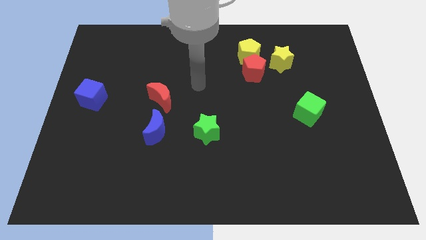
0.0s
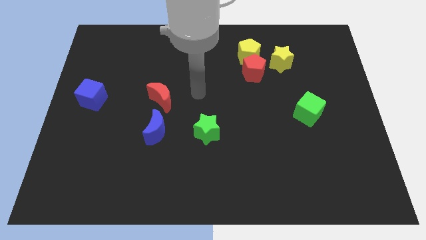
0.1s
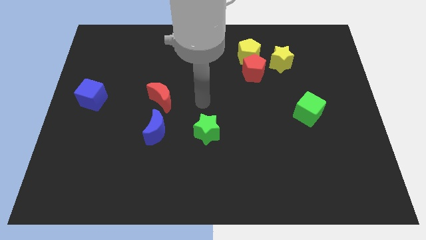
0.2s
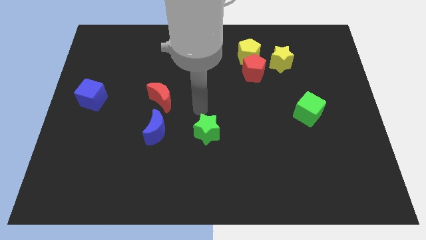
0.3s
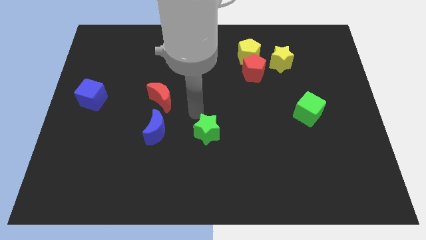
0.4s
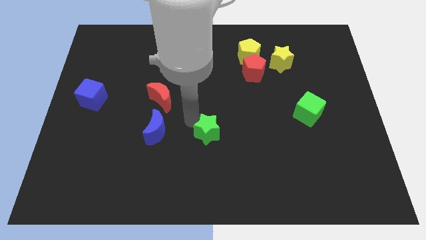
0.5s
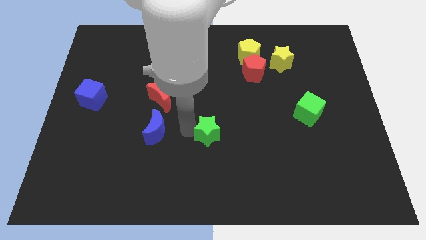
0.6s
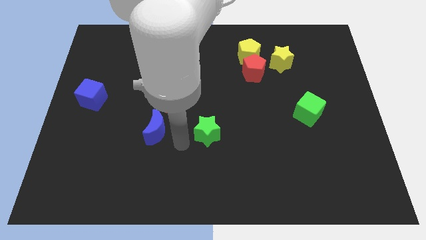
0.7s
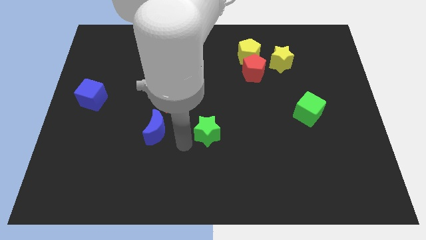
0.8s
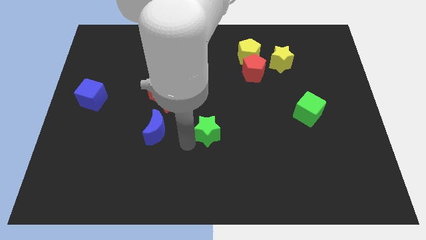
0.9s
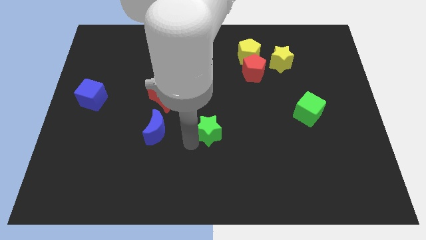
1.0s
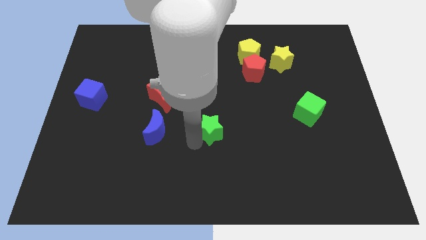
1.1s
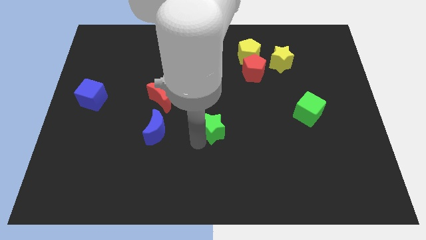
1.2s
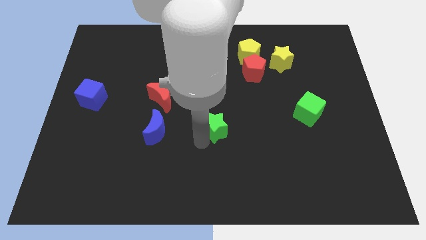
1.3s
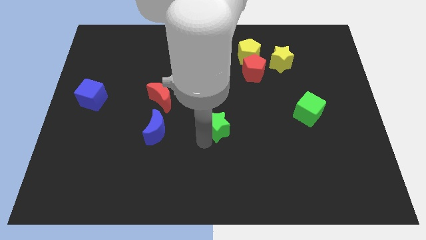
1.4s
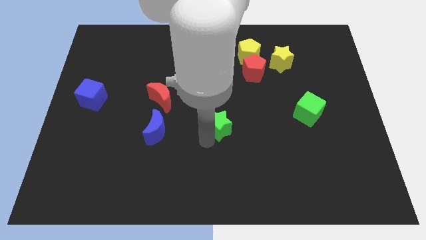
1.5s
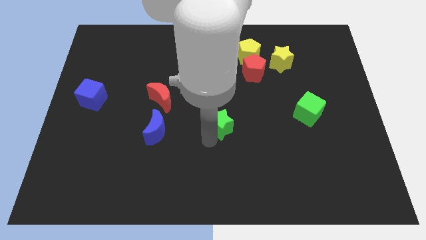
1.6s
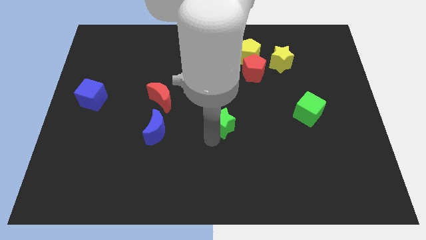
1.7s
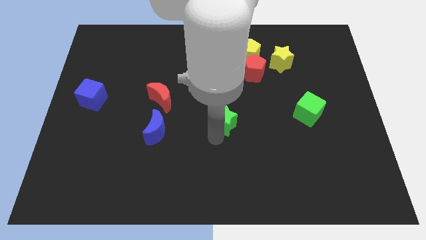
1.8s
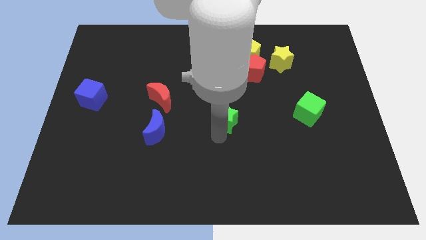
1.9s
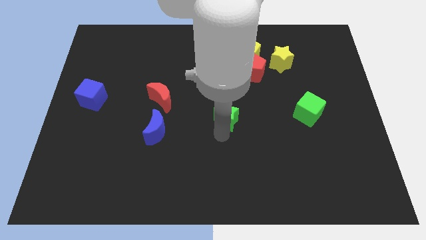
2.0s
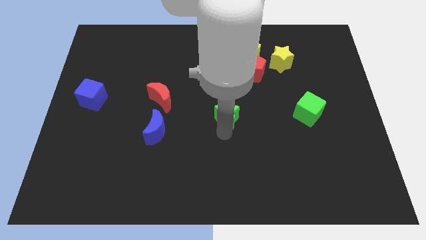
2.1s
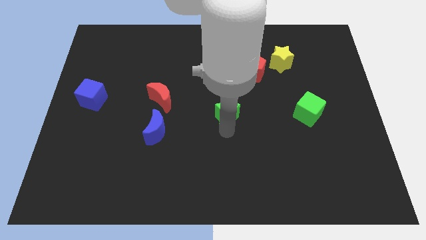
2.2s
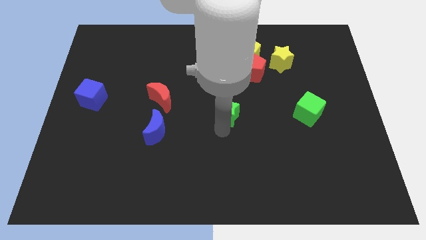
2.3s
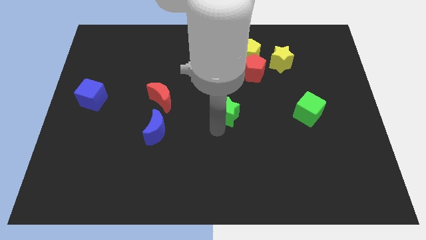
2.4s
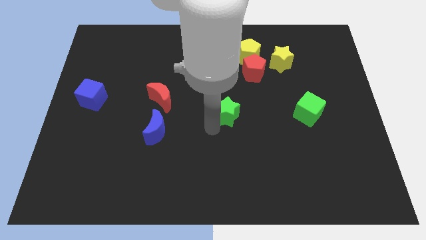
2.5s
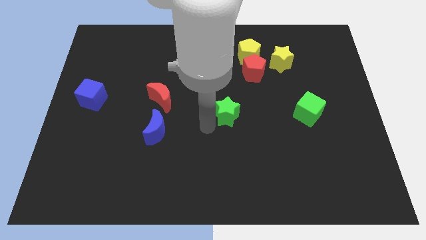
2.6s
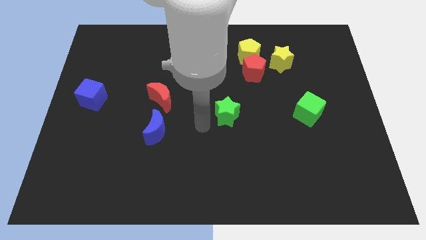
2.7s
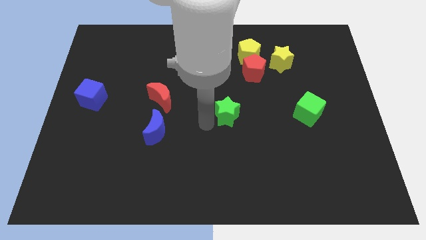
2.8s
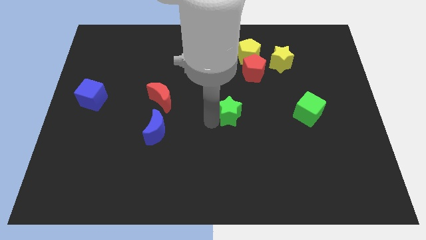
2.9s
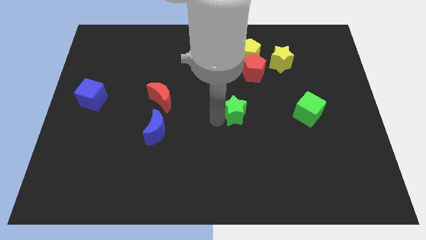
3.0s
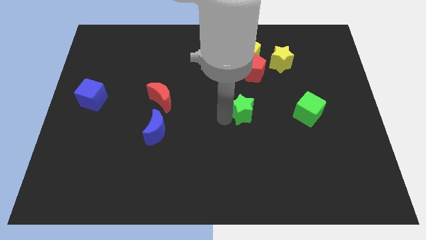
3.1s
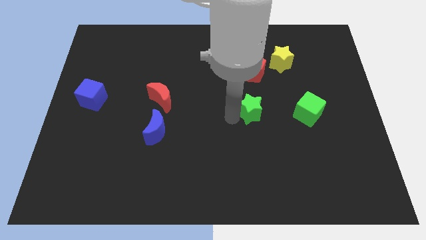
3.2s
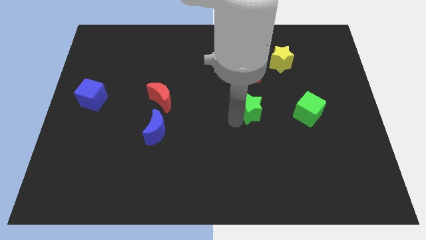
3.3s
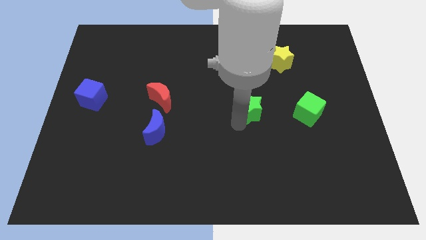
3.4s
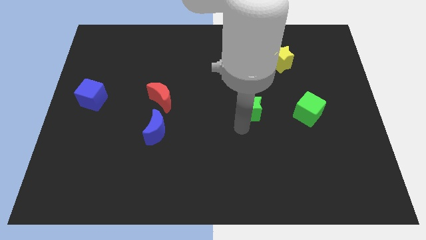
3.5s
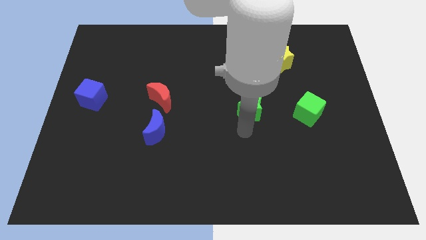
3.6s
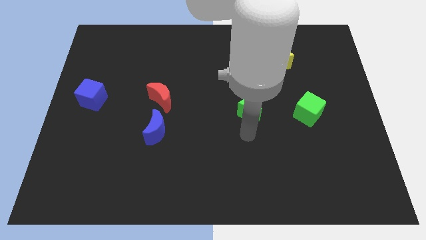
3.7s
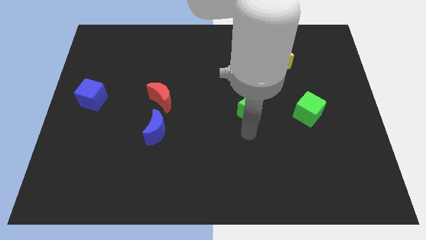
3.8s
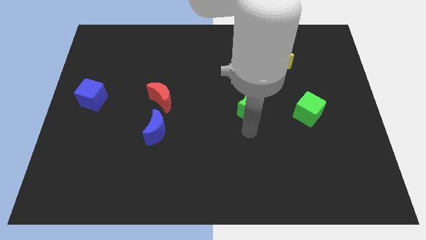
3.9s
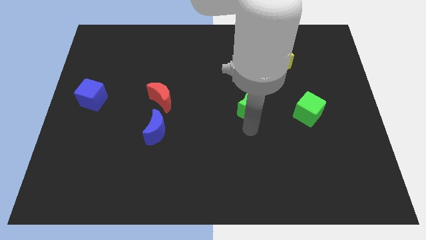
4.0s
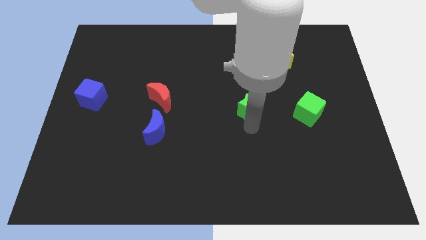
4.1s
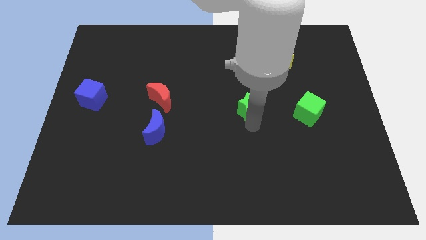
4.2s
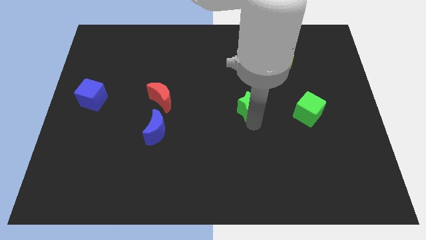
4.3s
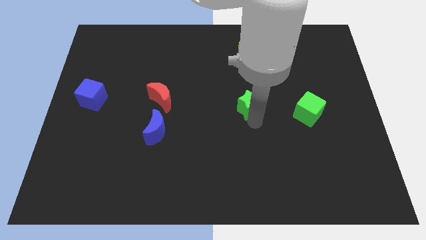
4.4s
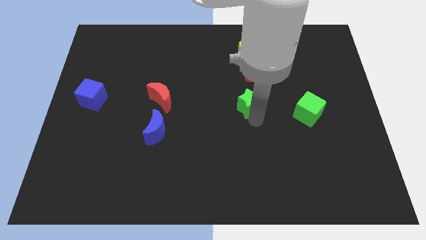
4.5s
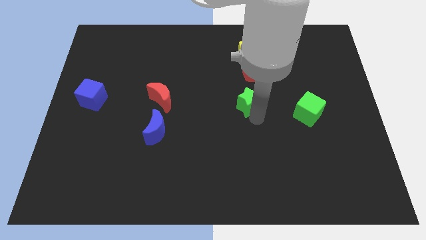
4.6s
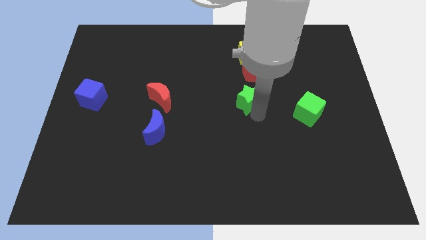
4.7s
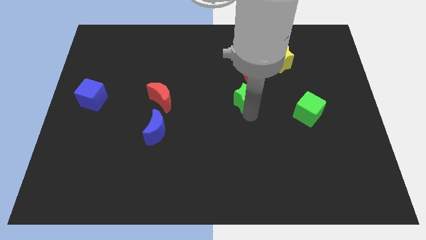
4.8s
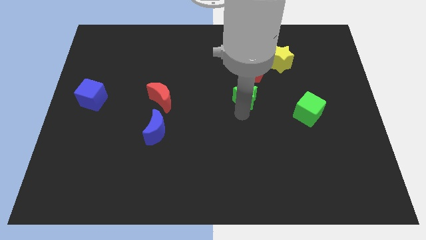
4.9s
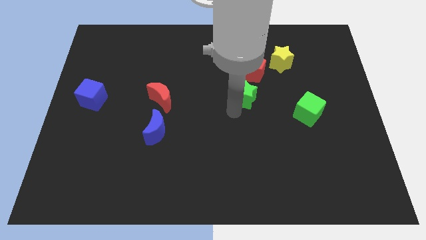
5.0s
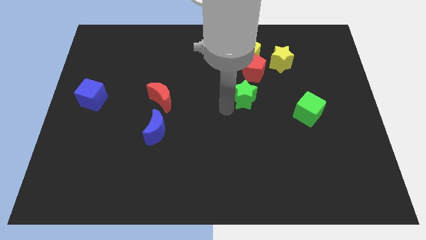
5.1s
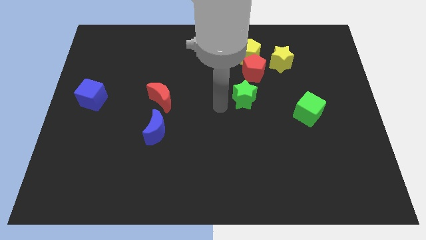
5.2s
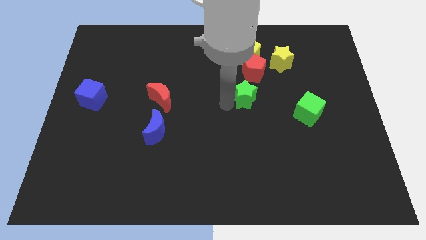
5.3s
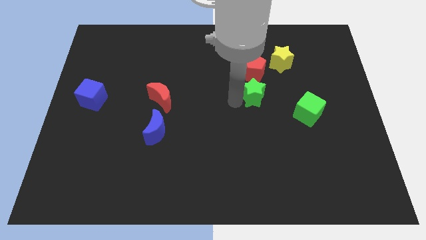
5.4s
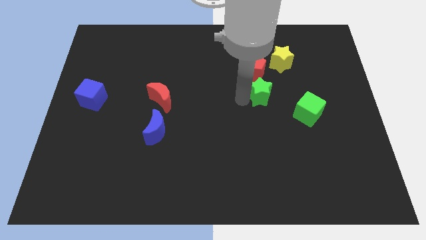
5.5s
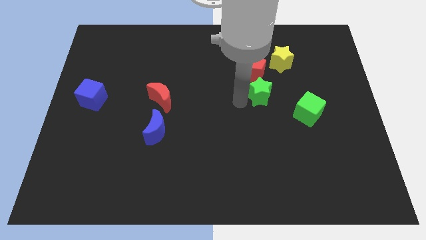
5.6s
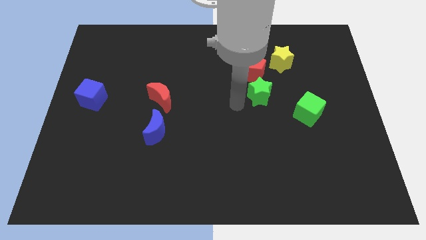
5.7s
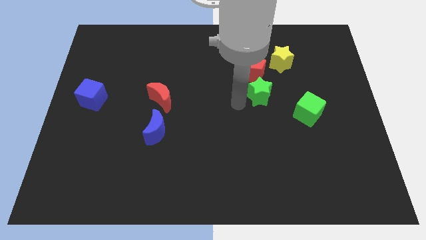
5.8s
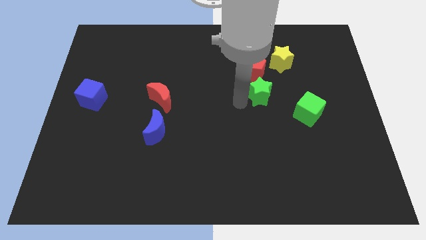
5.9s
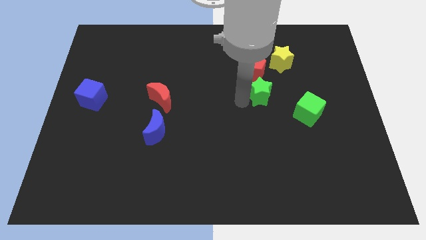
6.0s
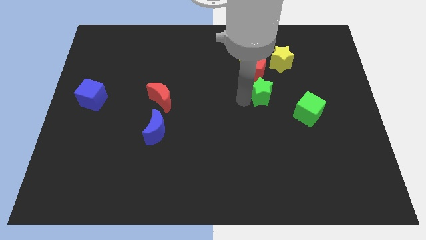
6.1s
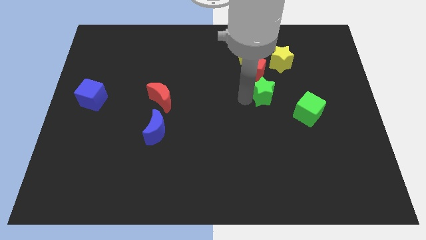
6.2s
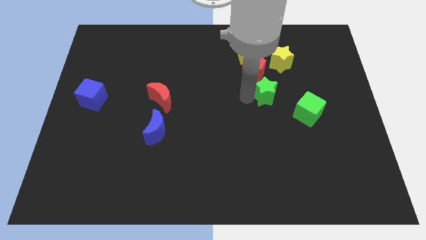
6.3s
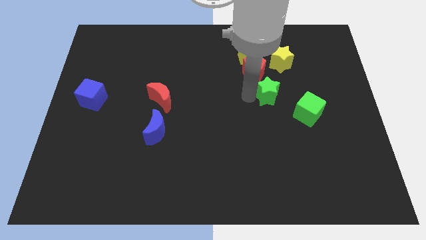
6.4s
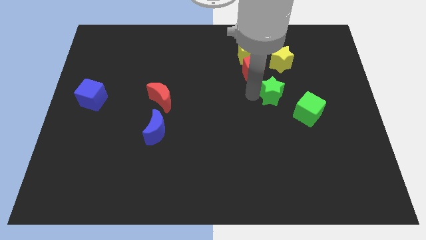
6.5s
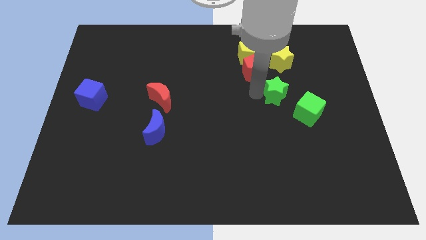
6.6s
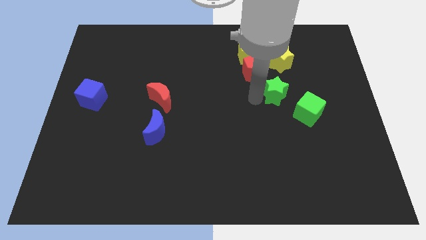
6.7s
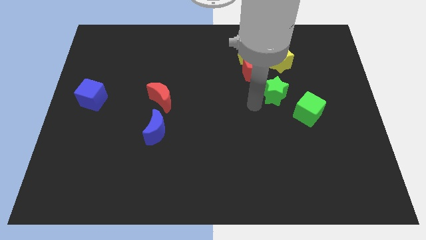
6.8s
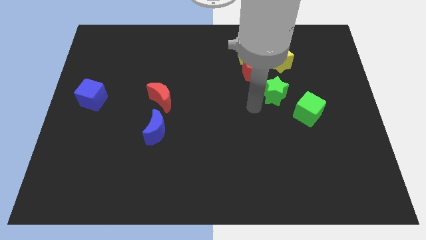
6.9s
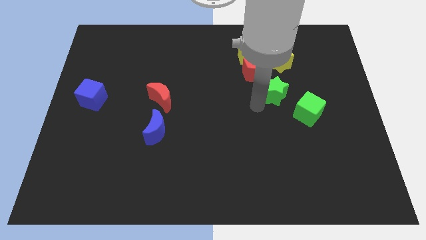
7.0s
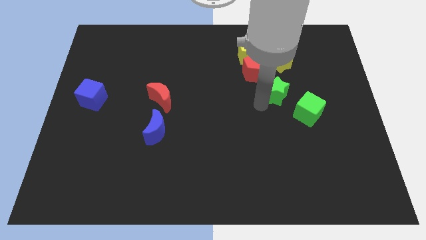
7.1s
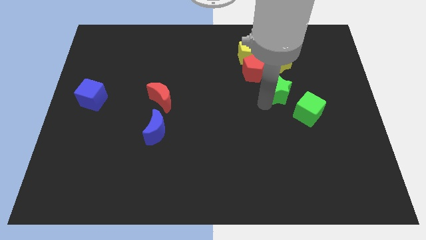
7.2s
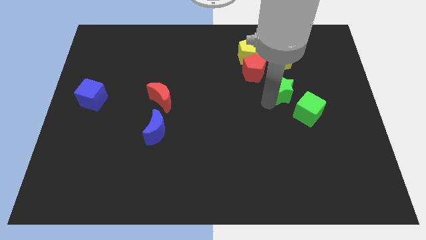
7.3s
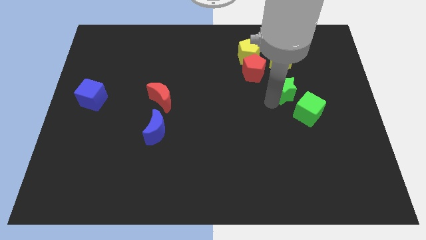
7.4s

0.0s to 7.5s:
put the green star to the top side of the green cube
